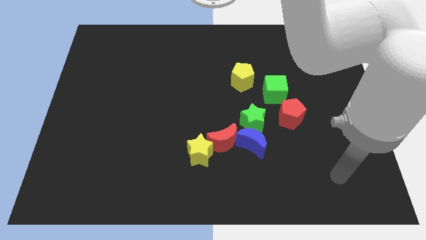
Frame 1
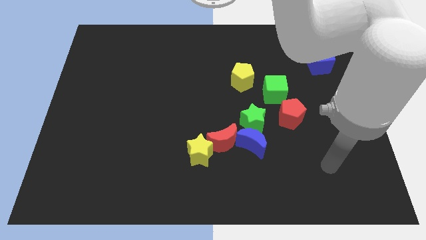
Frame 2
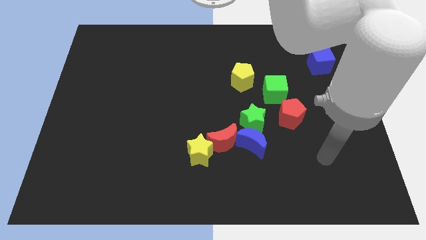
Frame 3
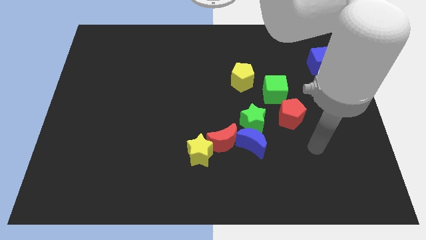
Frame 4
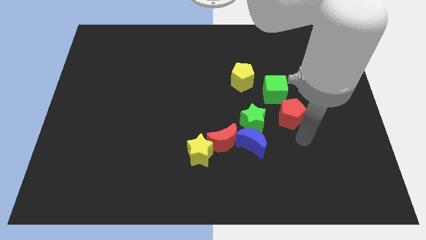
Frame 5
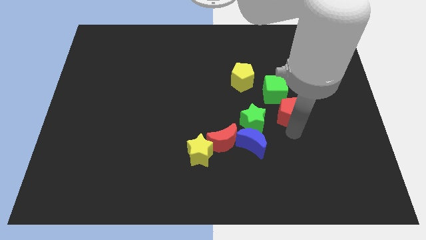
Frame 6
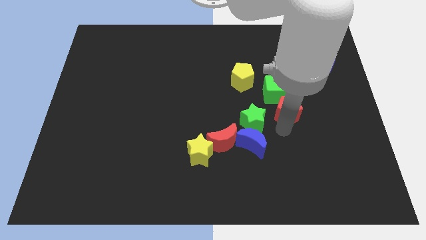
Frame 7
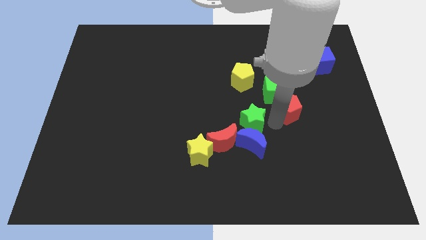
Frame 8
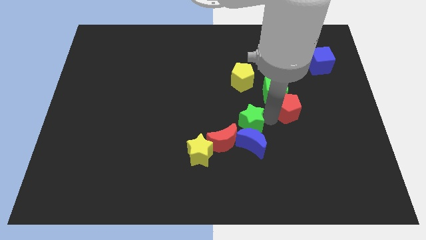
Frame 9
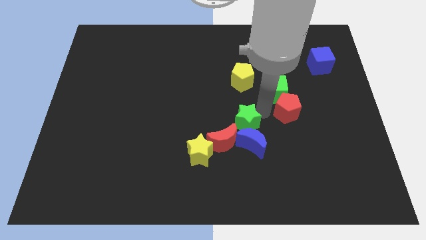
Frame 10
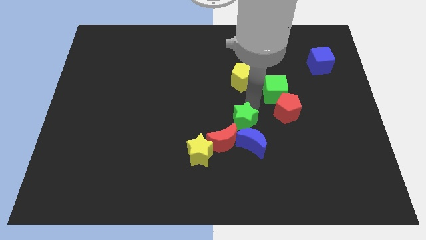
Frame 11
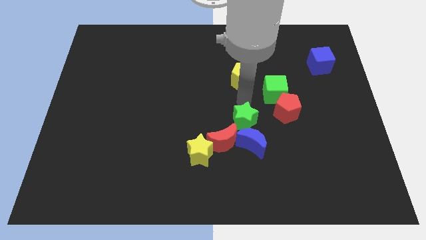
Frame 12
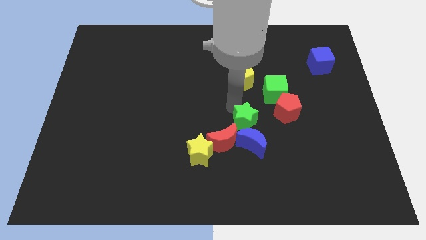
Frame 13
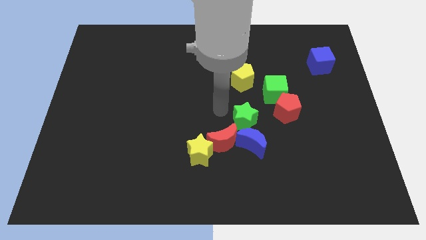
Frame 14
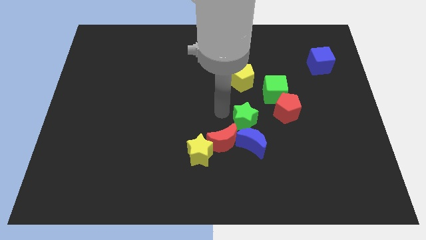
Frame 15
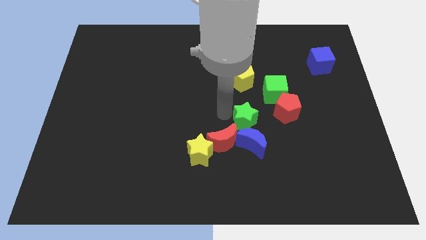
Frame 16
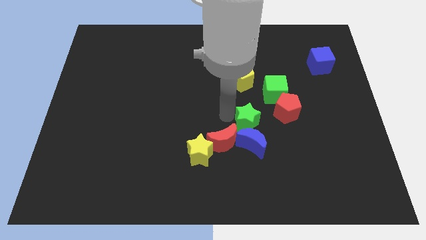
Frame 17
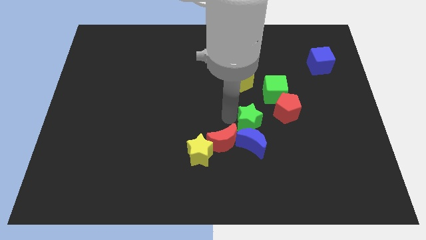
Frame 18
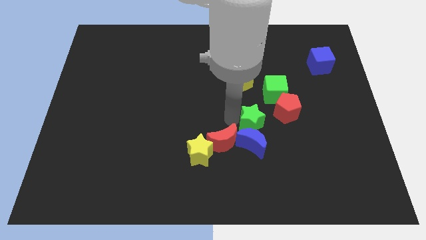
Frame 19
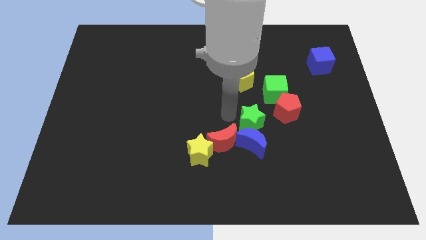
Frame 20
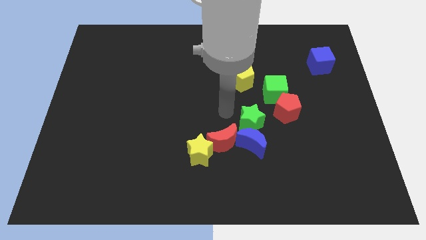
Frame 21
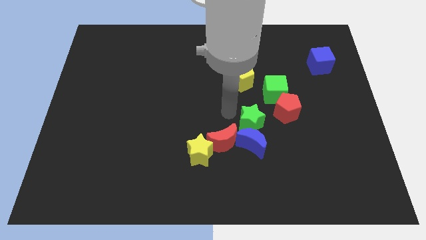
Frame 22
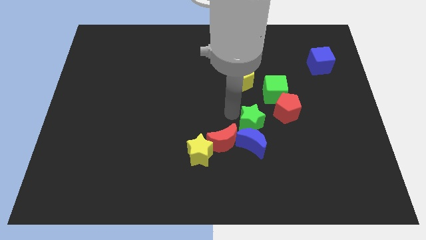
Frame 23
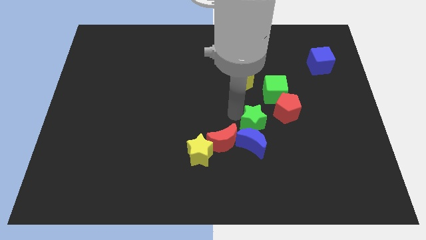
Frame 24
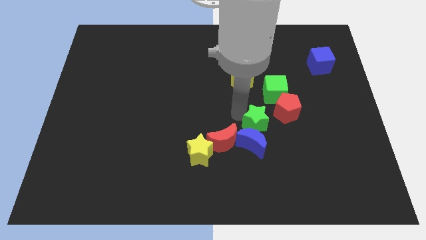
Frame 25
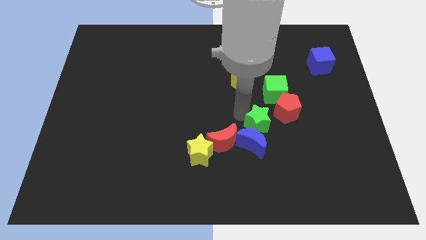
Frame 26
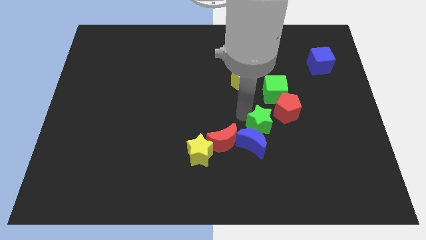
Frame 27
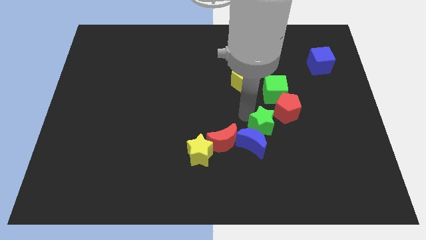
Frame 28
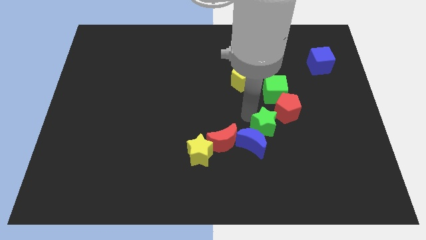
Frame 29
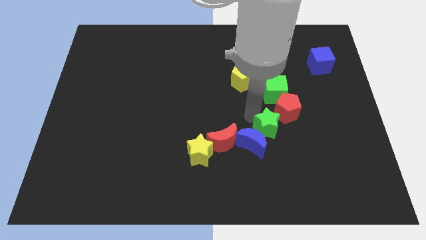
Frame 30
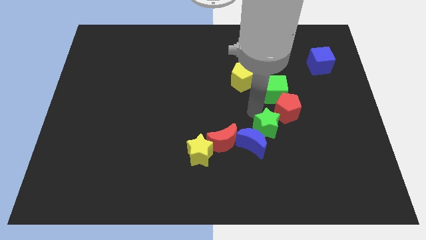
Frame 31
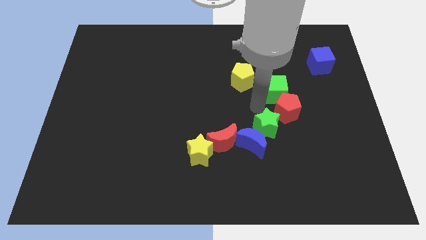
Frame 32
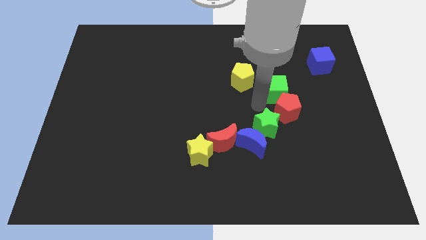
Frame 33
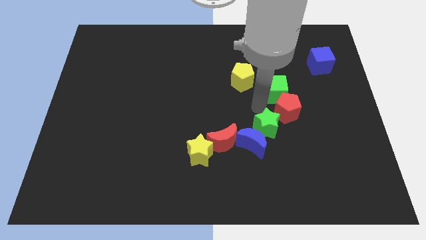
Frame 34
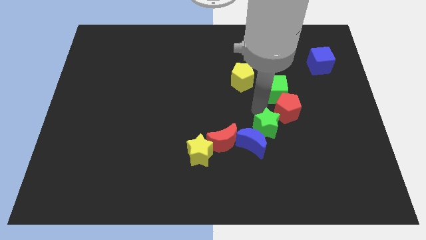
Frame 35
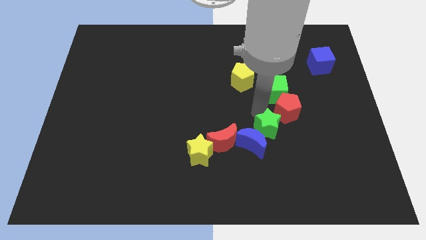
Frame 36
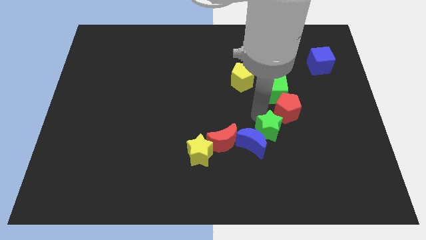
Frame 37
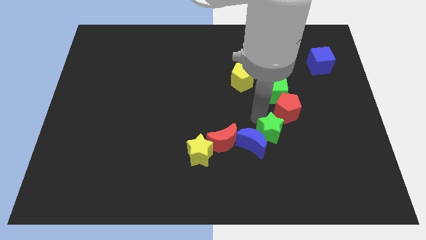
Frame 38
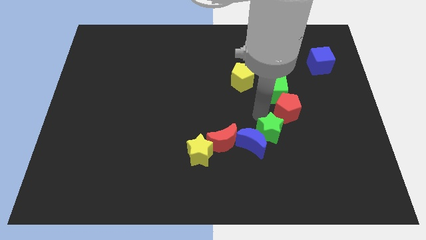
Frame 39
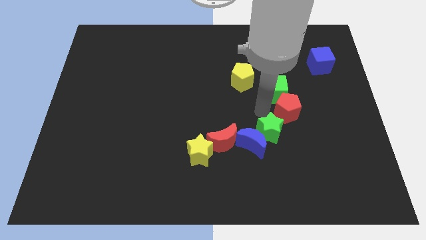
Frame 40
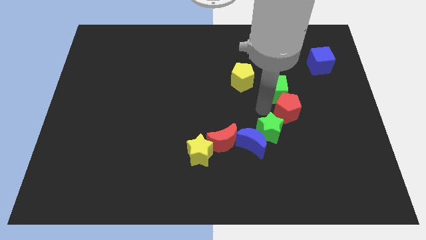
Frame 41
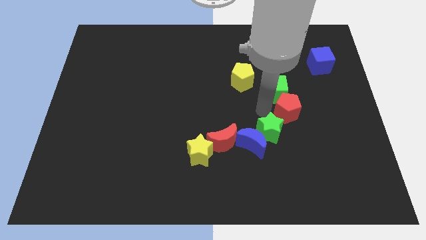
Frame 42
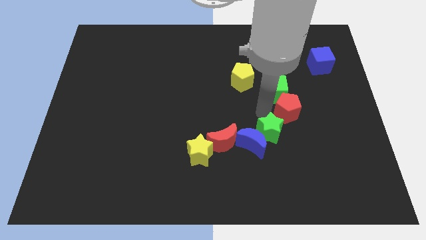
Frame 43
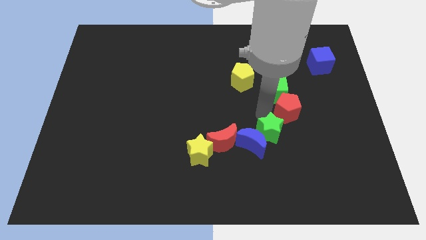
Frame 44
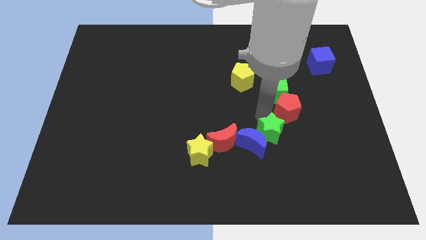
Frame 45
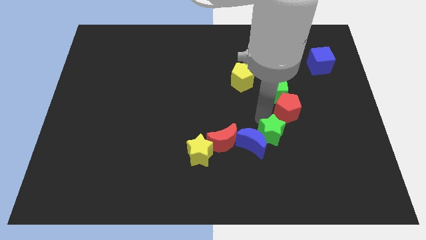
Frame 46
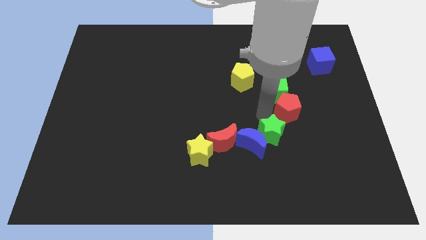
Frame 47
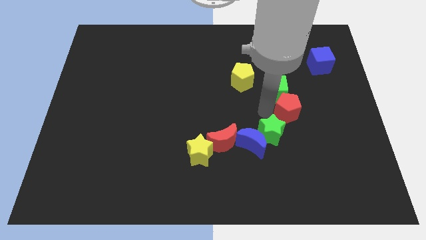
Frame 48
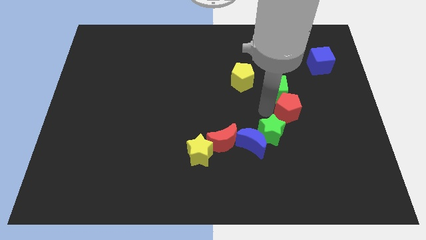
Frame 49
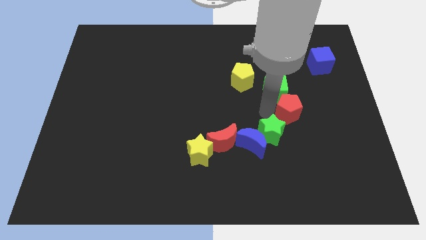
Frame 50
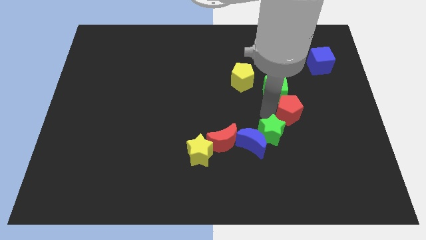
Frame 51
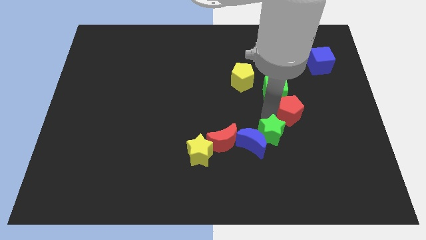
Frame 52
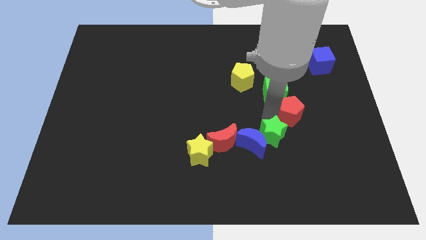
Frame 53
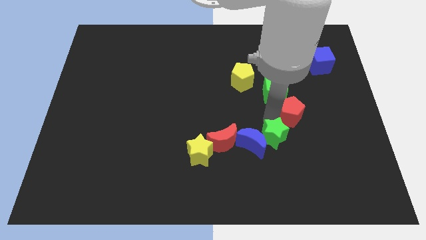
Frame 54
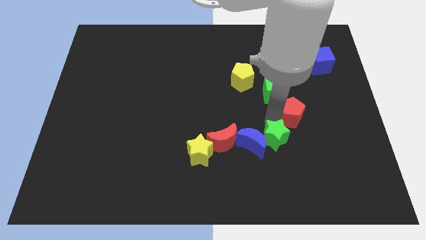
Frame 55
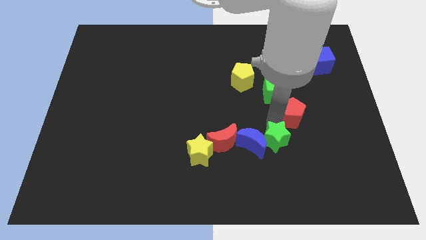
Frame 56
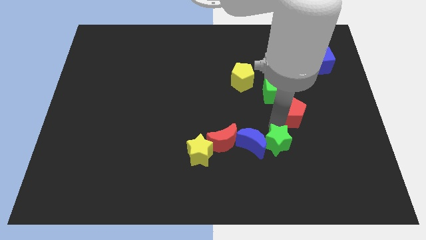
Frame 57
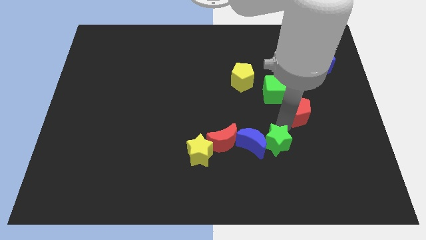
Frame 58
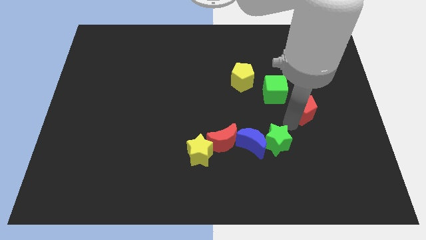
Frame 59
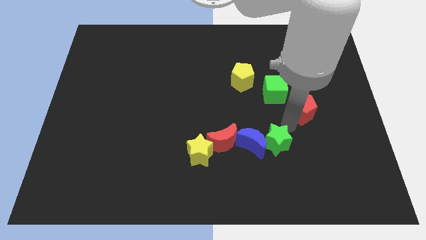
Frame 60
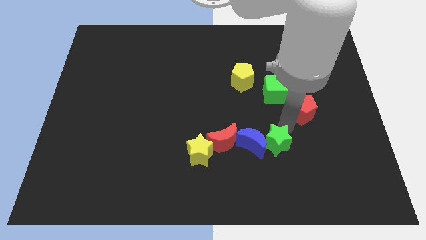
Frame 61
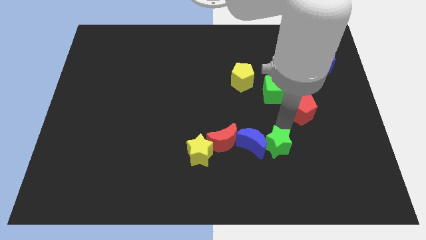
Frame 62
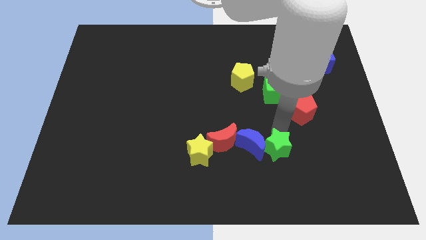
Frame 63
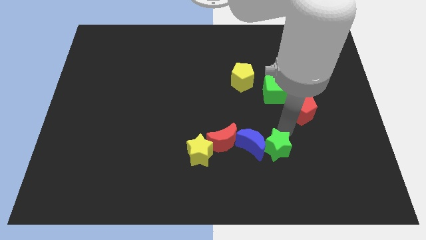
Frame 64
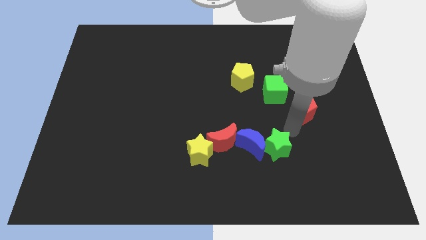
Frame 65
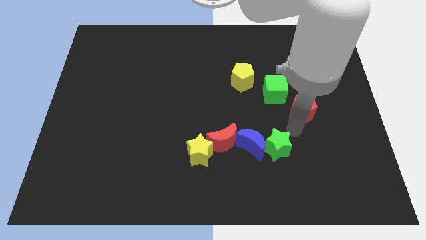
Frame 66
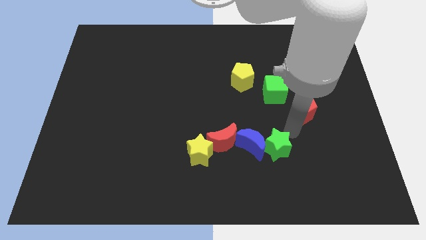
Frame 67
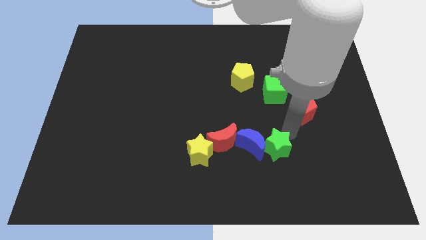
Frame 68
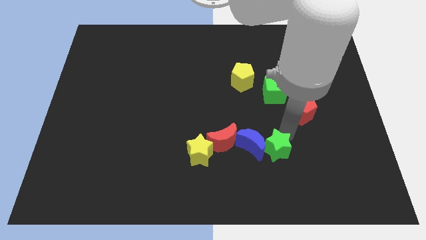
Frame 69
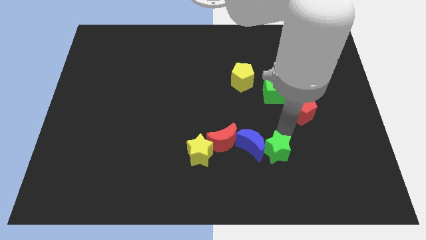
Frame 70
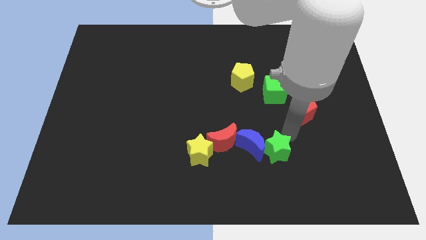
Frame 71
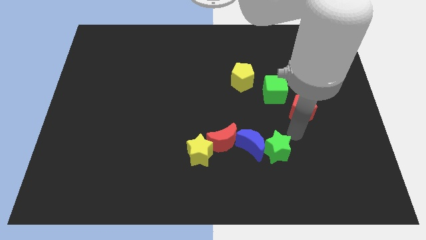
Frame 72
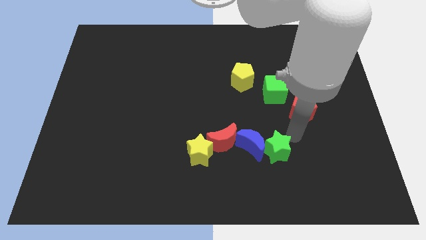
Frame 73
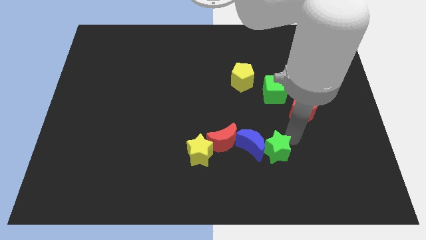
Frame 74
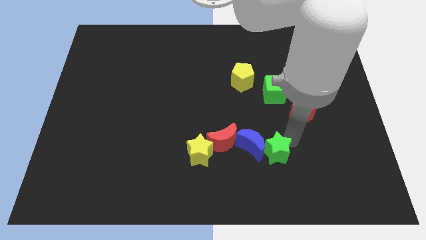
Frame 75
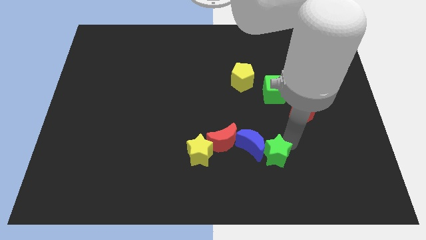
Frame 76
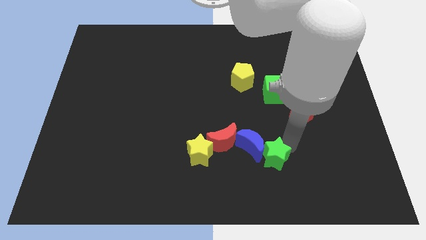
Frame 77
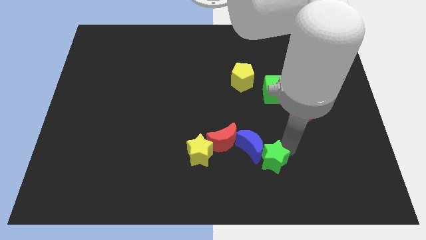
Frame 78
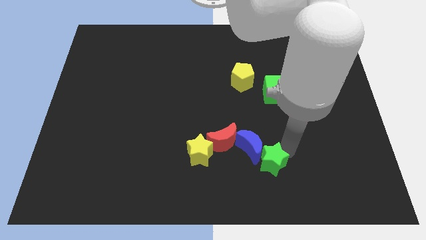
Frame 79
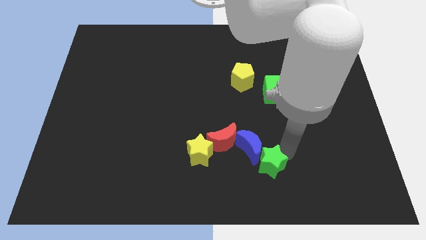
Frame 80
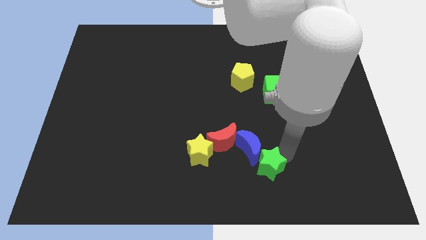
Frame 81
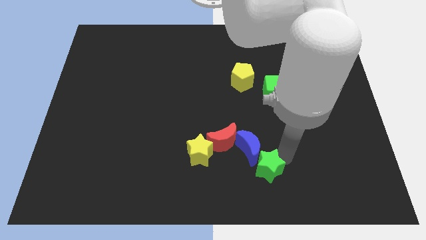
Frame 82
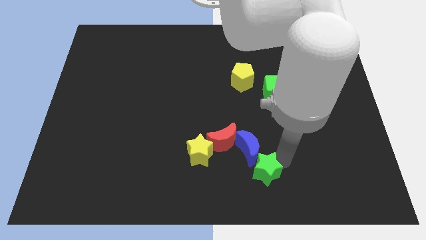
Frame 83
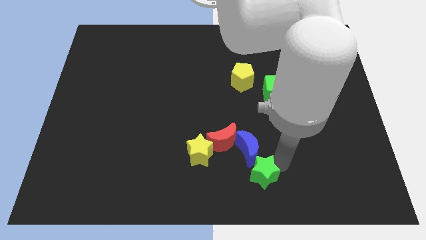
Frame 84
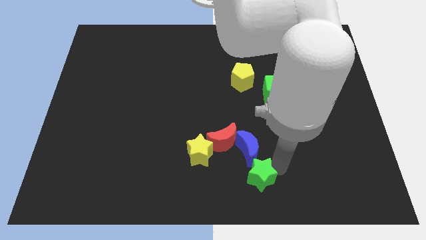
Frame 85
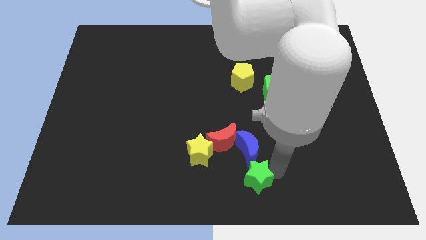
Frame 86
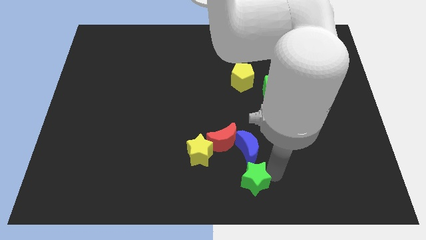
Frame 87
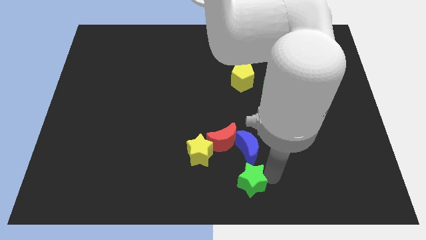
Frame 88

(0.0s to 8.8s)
slightly slide the green star diagonally downwards and left
